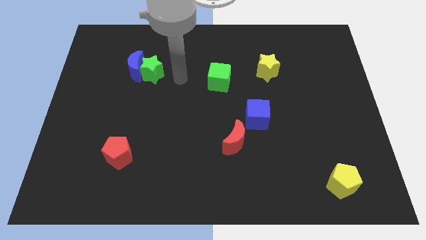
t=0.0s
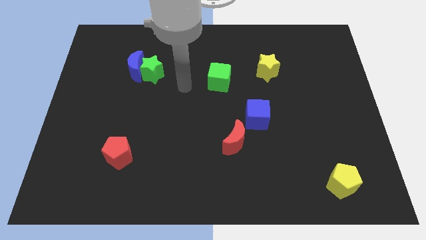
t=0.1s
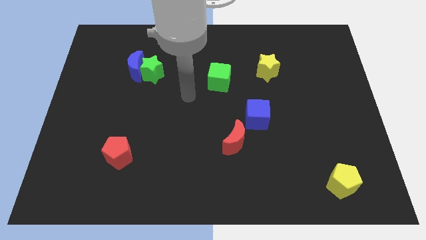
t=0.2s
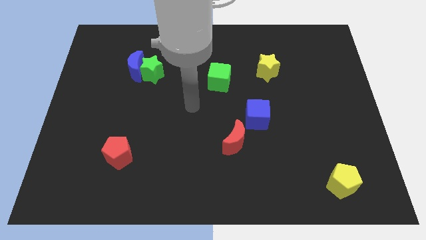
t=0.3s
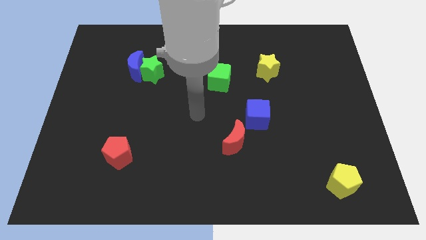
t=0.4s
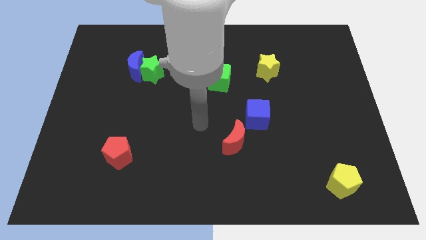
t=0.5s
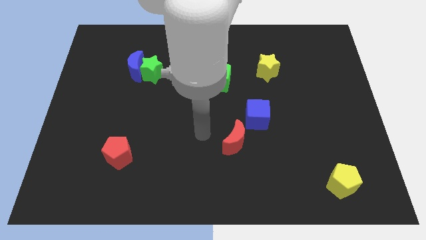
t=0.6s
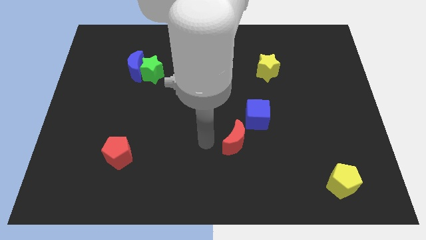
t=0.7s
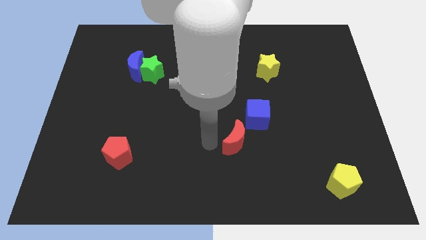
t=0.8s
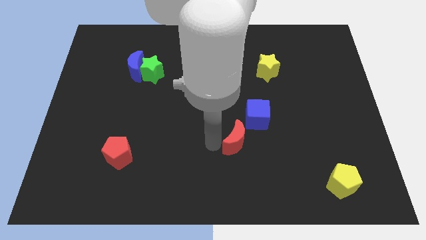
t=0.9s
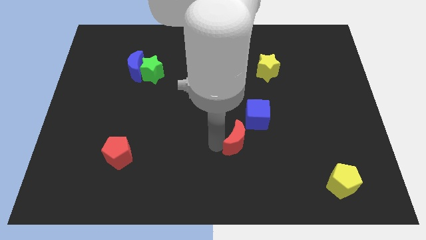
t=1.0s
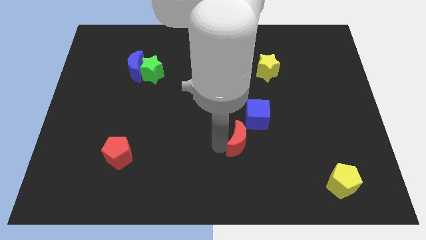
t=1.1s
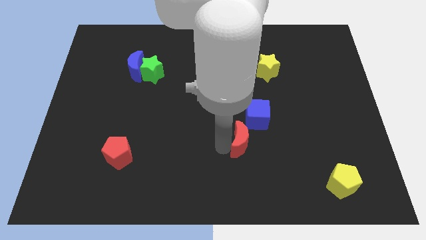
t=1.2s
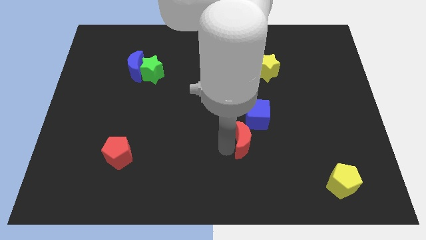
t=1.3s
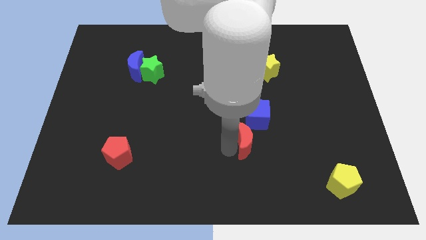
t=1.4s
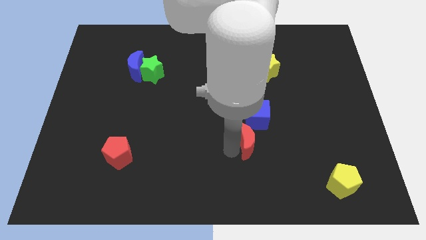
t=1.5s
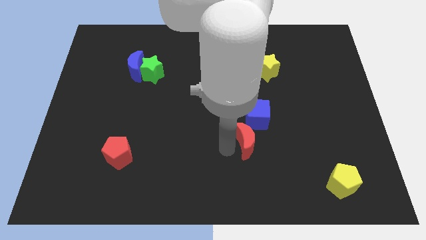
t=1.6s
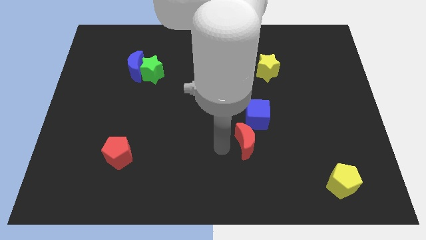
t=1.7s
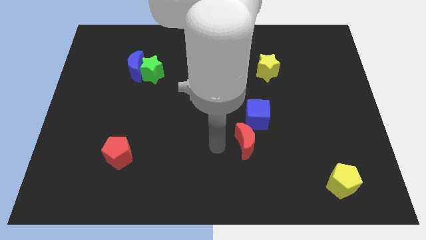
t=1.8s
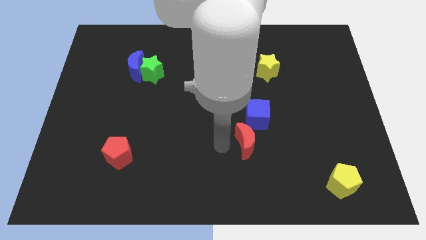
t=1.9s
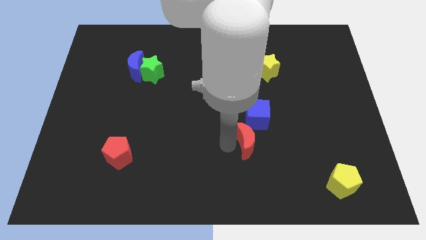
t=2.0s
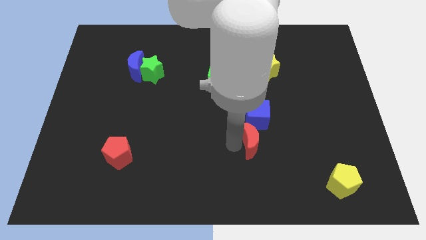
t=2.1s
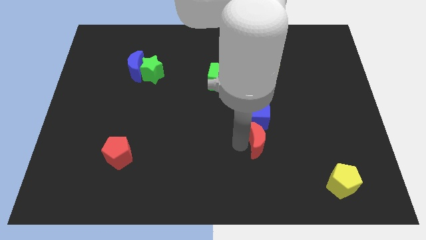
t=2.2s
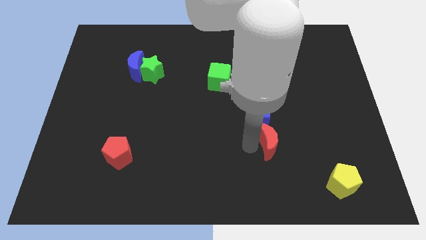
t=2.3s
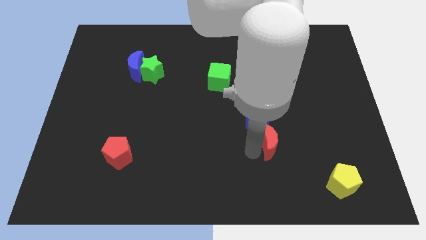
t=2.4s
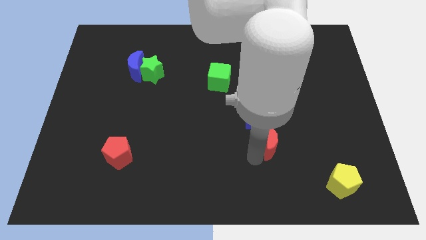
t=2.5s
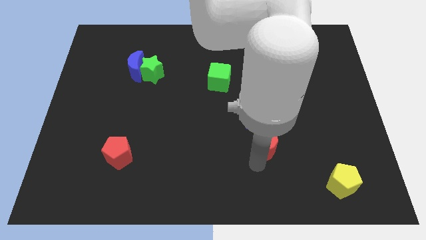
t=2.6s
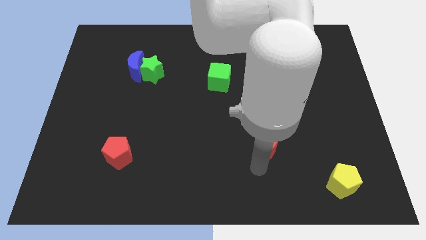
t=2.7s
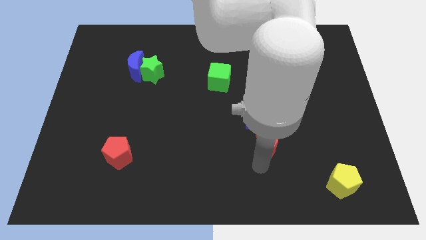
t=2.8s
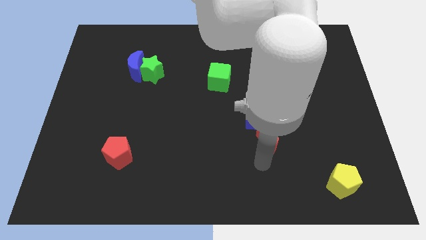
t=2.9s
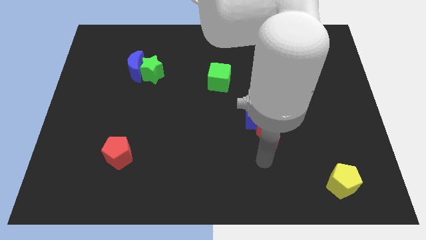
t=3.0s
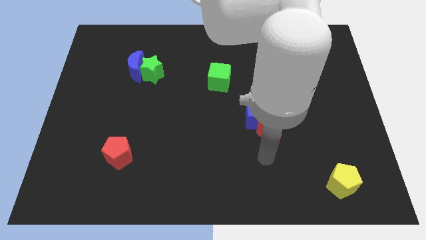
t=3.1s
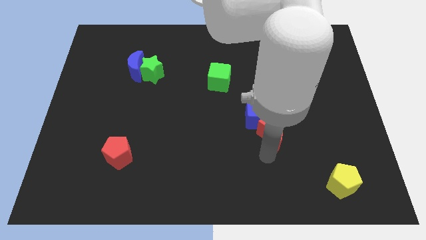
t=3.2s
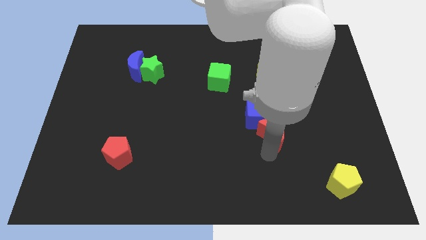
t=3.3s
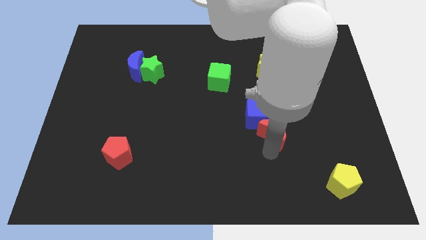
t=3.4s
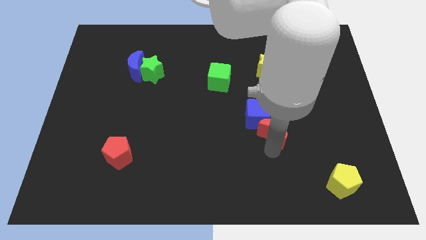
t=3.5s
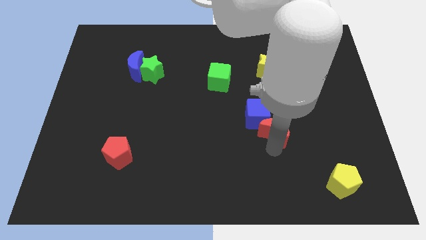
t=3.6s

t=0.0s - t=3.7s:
move the red moon upwards and then to the right a bit

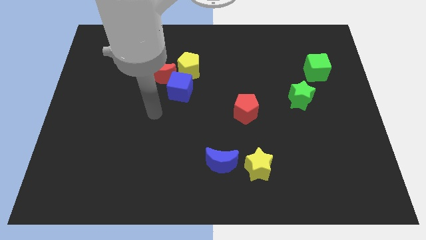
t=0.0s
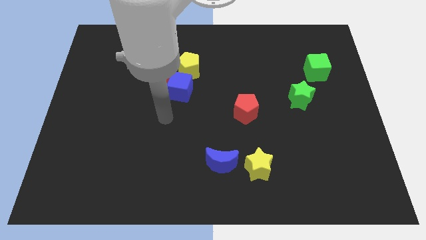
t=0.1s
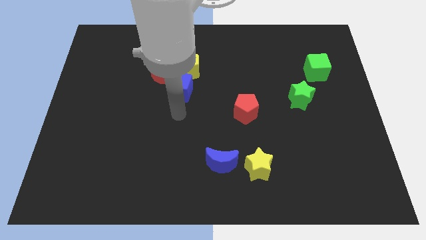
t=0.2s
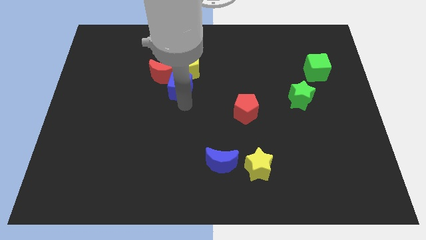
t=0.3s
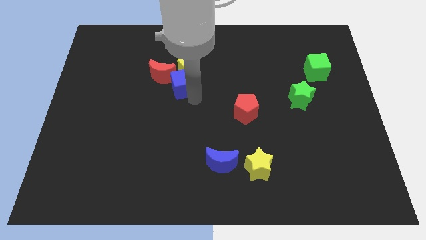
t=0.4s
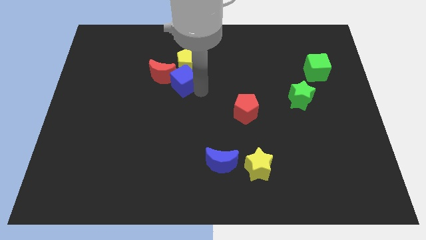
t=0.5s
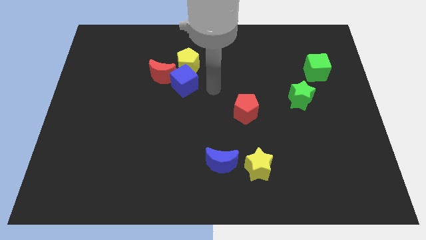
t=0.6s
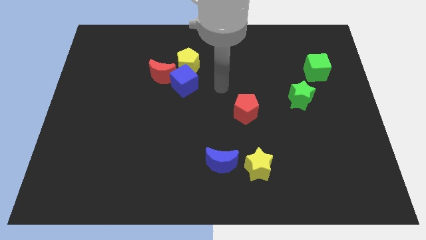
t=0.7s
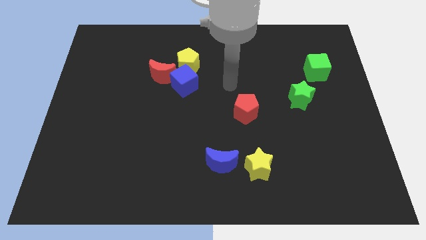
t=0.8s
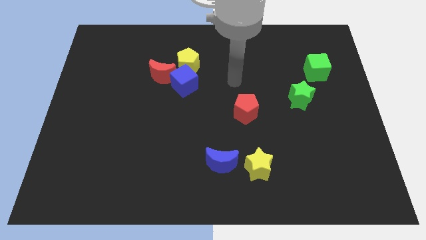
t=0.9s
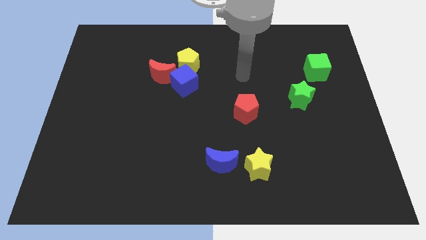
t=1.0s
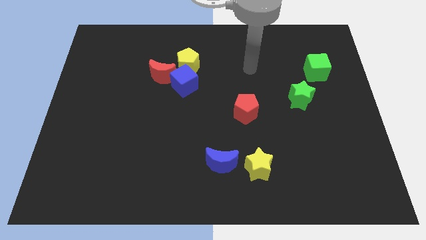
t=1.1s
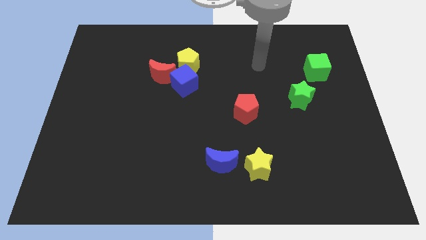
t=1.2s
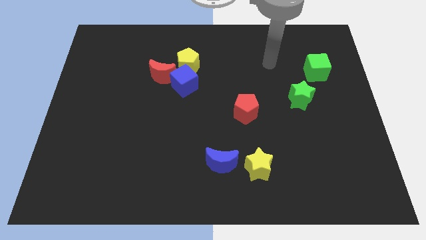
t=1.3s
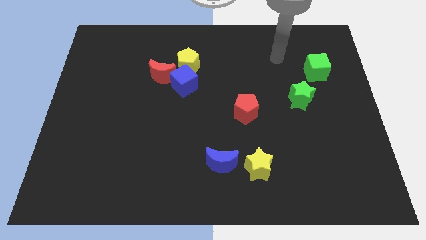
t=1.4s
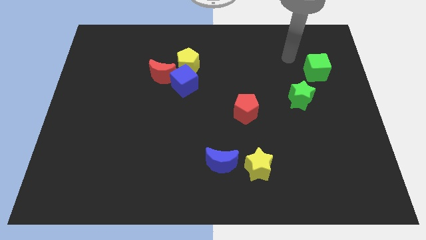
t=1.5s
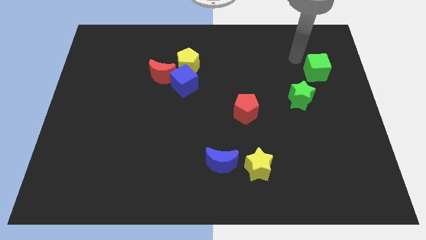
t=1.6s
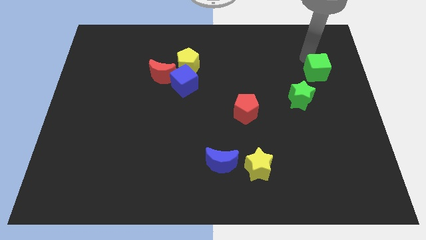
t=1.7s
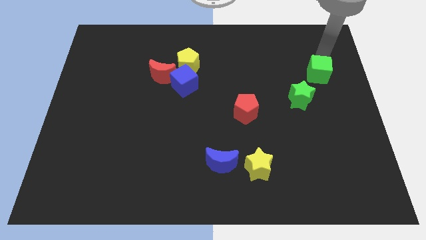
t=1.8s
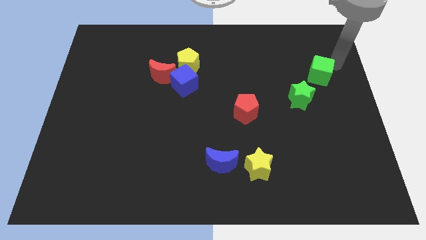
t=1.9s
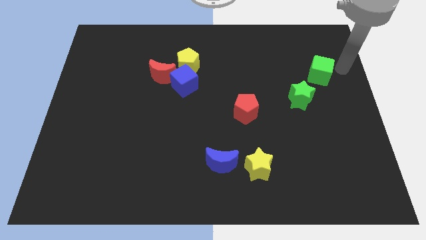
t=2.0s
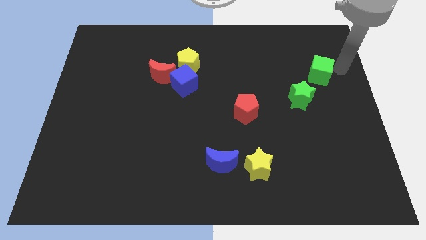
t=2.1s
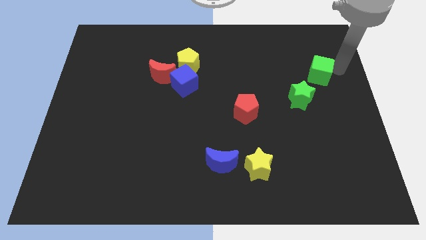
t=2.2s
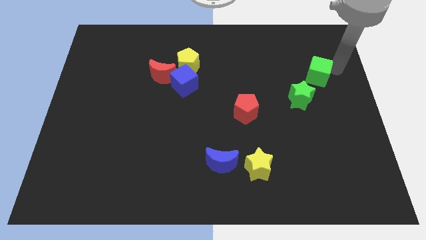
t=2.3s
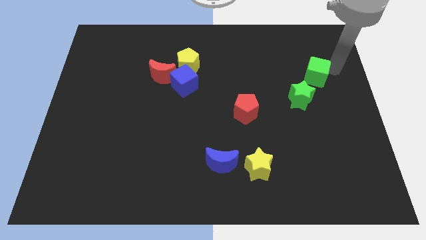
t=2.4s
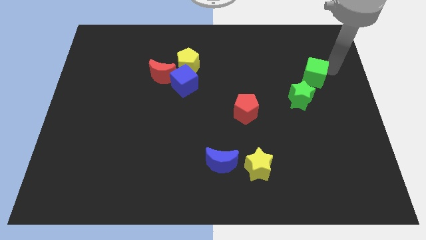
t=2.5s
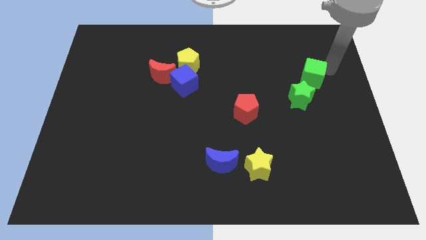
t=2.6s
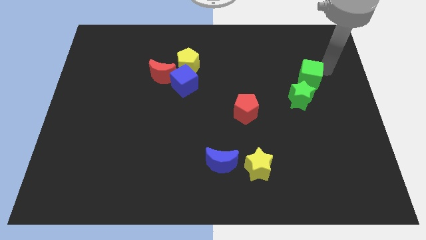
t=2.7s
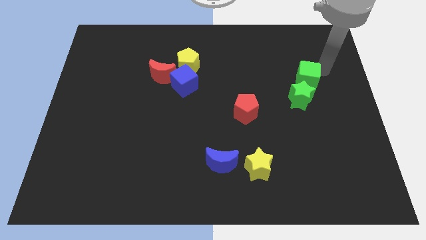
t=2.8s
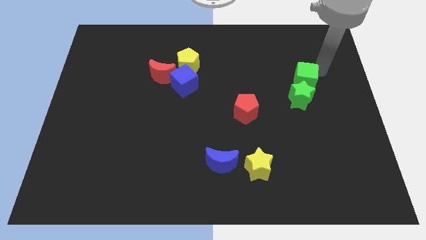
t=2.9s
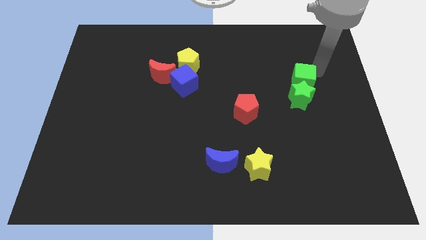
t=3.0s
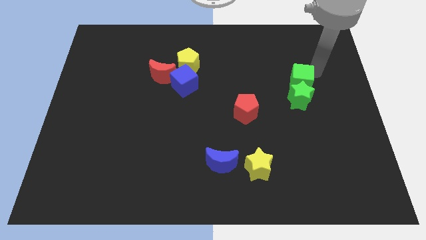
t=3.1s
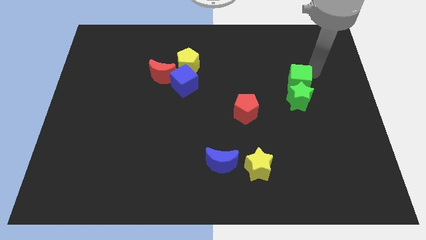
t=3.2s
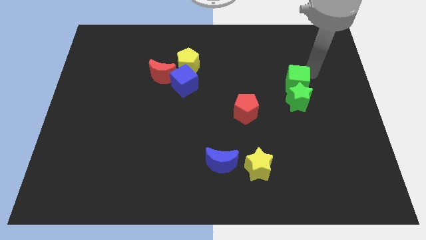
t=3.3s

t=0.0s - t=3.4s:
slightly slide the green cube down and to the left

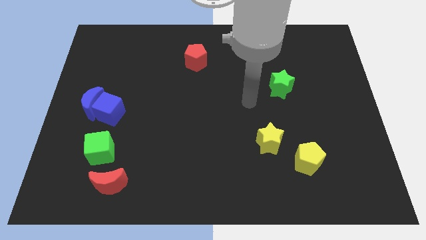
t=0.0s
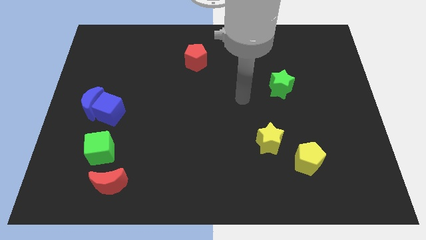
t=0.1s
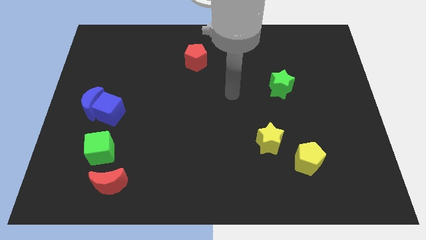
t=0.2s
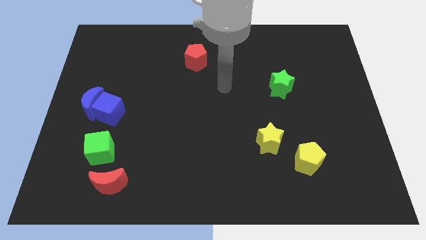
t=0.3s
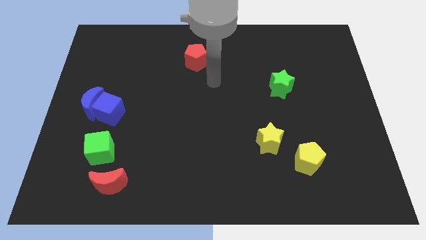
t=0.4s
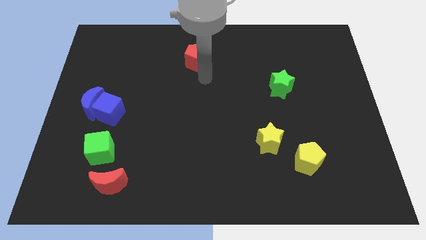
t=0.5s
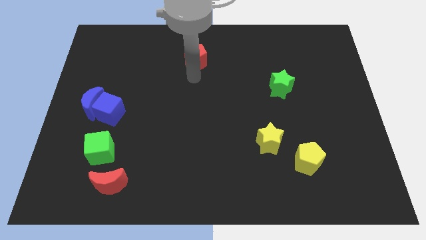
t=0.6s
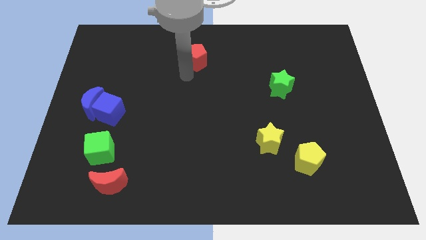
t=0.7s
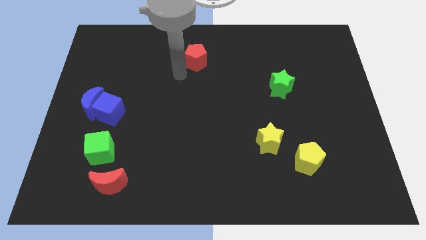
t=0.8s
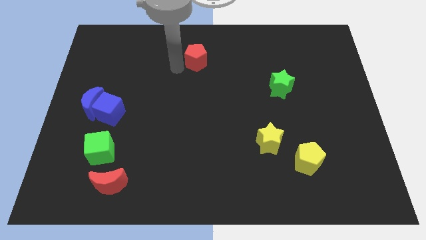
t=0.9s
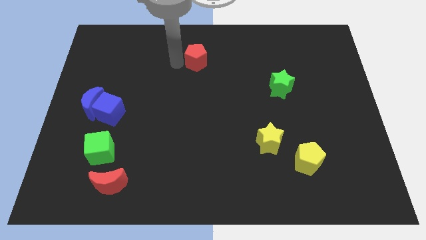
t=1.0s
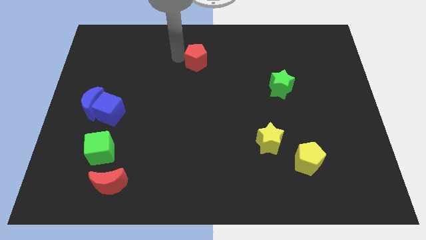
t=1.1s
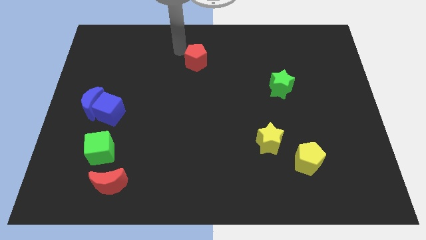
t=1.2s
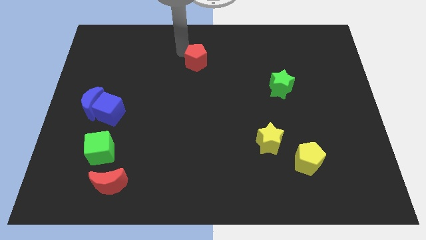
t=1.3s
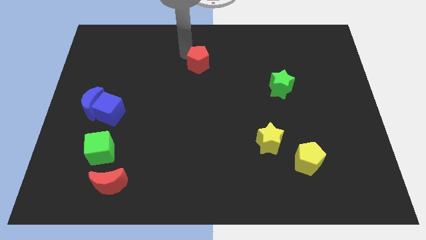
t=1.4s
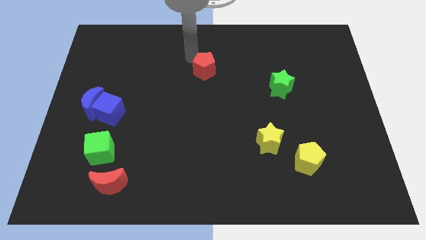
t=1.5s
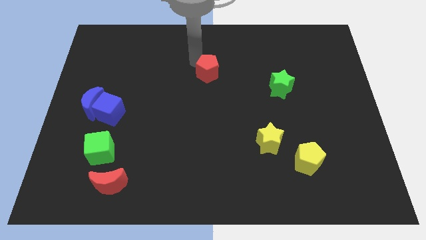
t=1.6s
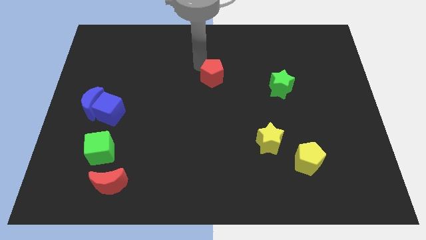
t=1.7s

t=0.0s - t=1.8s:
push the red pentagon diagonally down and to the right slightly
